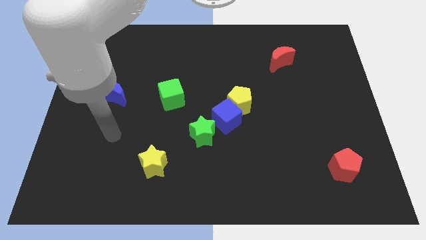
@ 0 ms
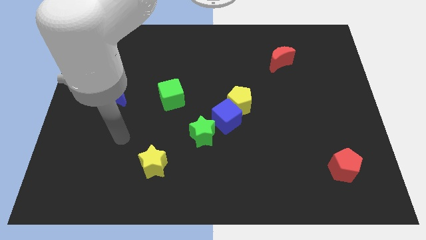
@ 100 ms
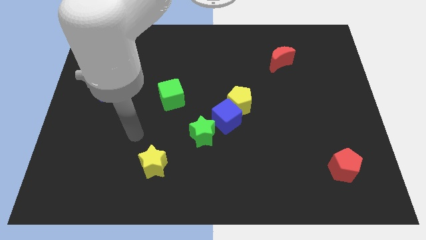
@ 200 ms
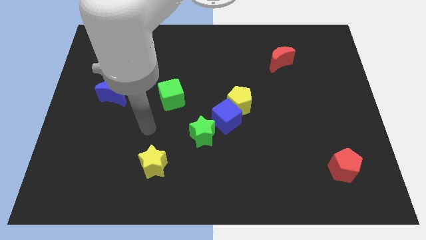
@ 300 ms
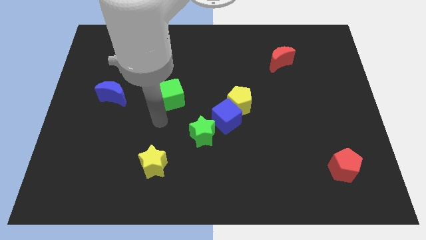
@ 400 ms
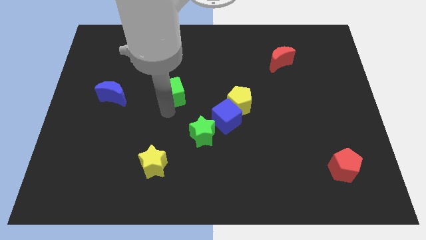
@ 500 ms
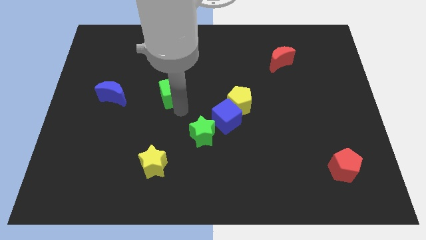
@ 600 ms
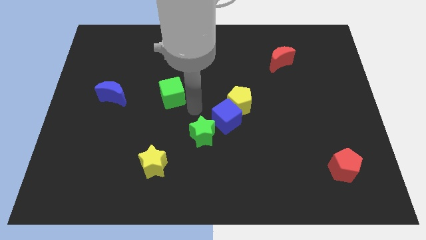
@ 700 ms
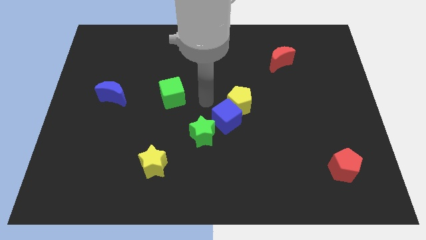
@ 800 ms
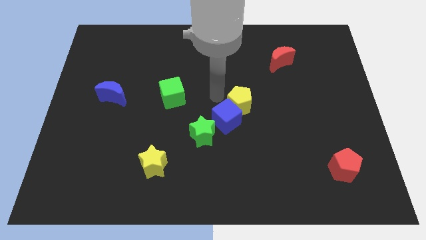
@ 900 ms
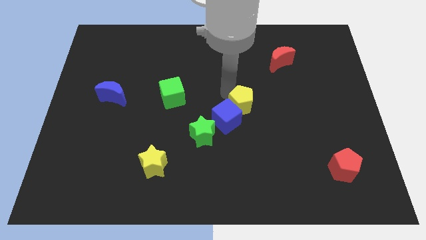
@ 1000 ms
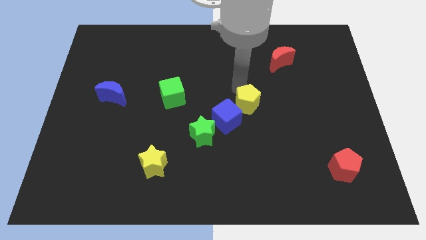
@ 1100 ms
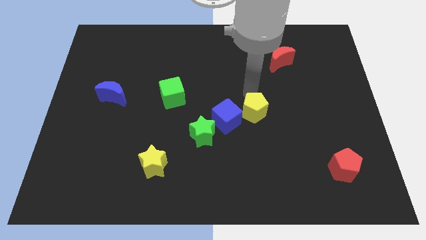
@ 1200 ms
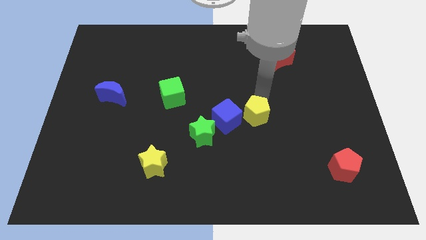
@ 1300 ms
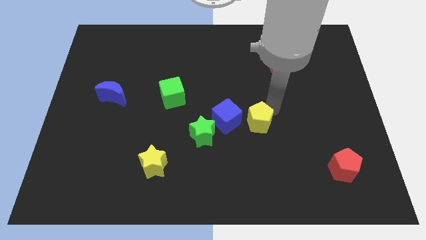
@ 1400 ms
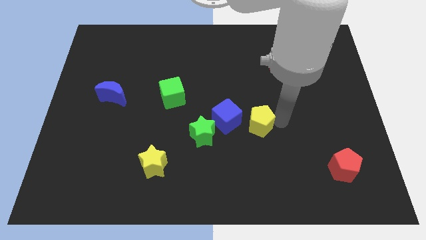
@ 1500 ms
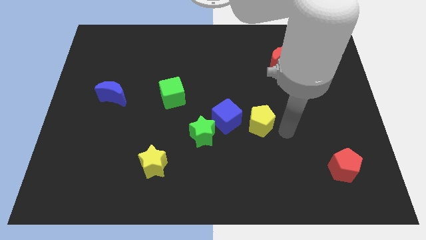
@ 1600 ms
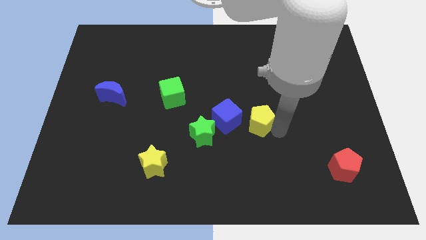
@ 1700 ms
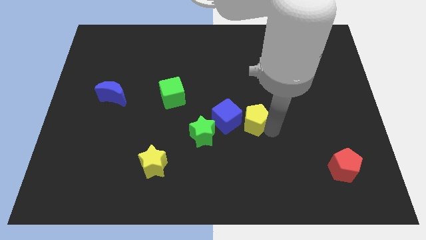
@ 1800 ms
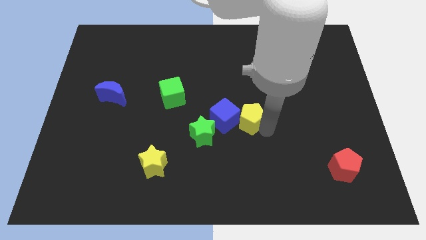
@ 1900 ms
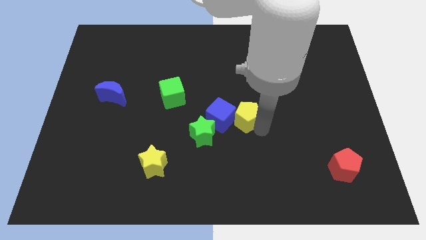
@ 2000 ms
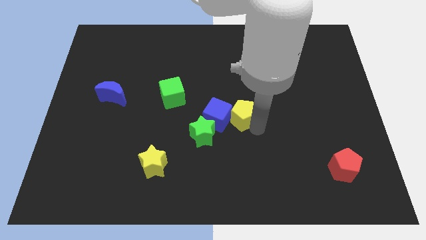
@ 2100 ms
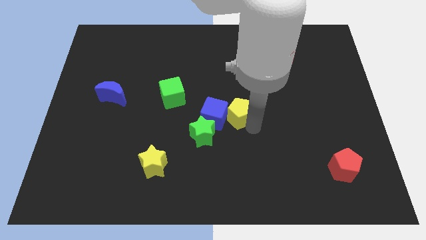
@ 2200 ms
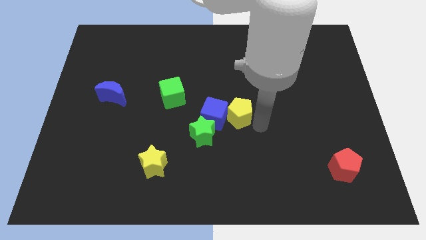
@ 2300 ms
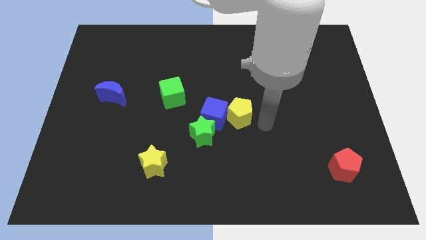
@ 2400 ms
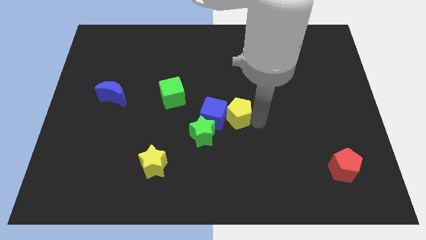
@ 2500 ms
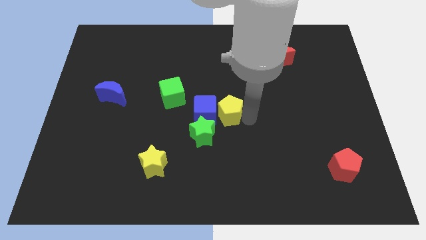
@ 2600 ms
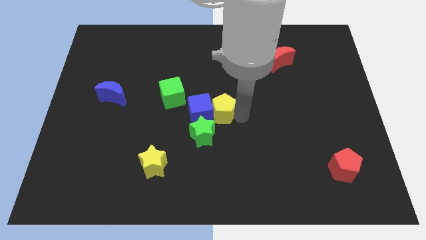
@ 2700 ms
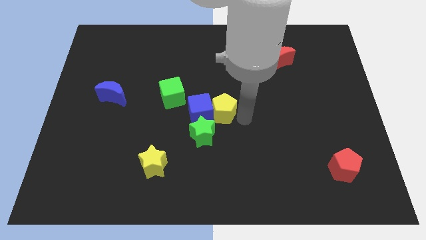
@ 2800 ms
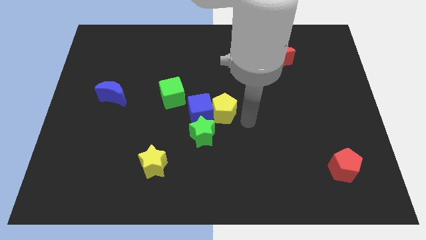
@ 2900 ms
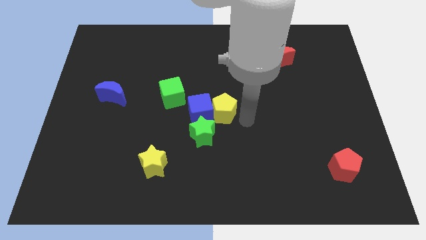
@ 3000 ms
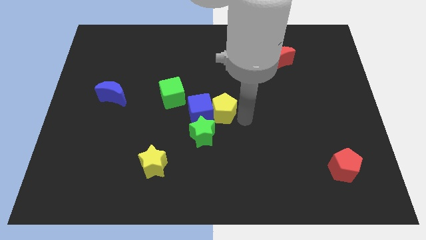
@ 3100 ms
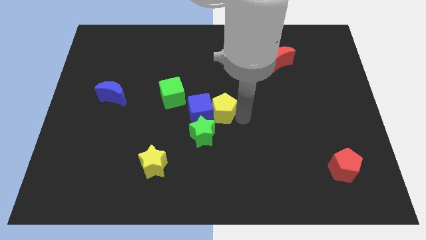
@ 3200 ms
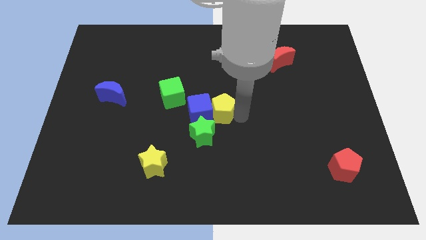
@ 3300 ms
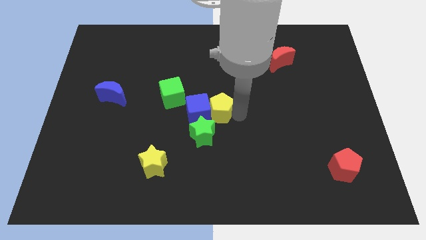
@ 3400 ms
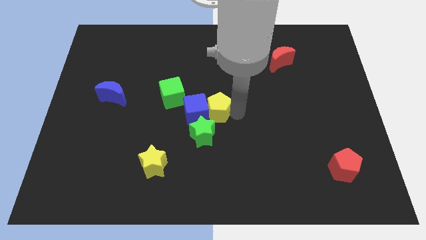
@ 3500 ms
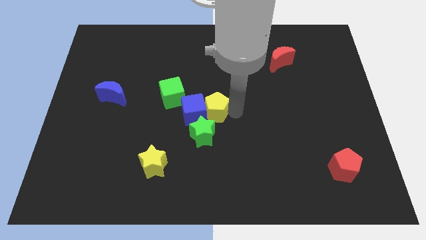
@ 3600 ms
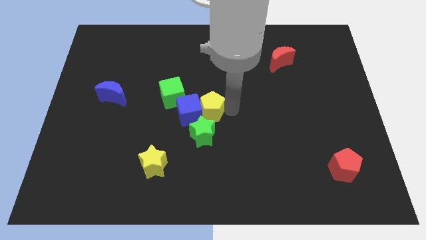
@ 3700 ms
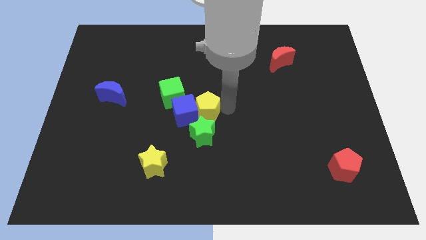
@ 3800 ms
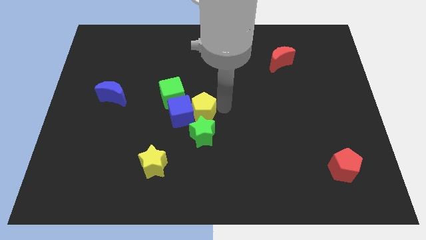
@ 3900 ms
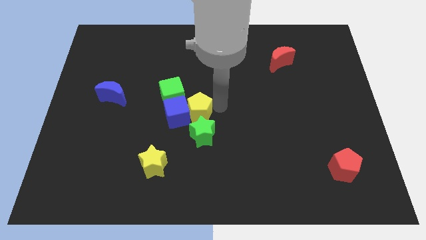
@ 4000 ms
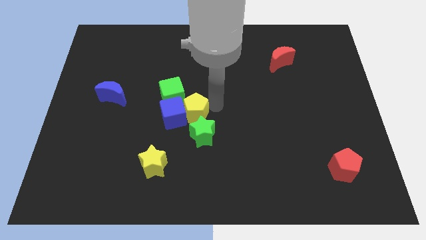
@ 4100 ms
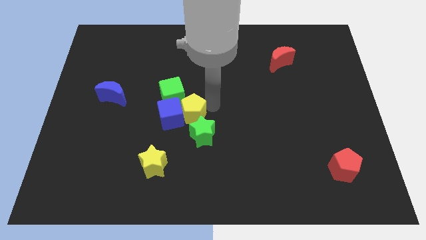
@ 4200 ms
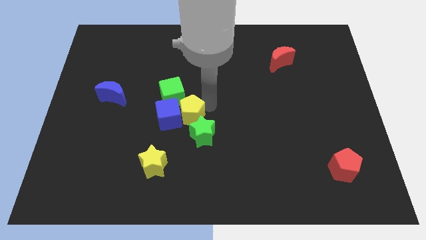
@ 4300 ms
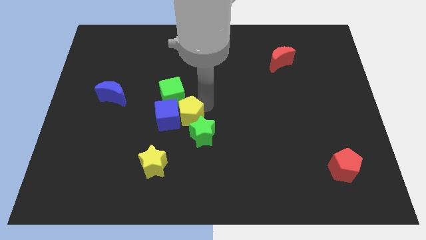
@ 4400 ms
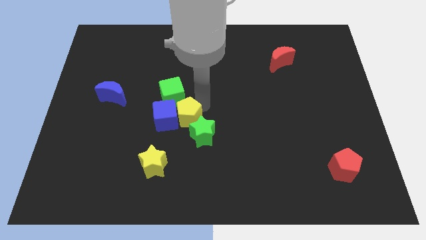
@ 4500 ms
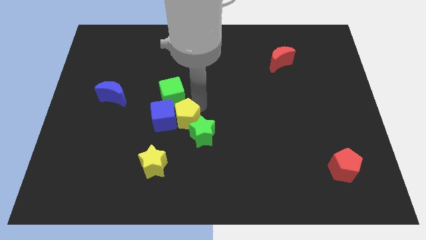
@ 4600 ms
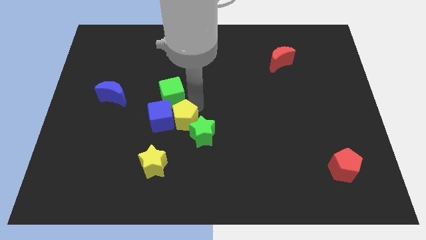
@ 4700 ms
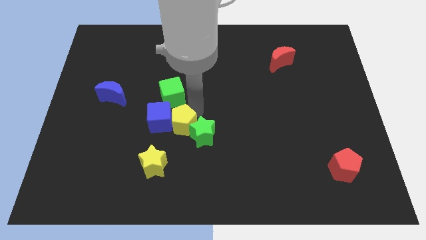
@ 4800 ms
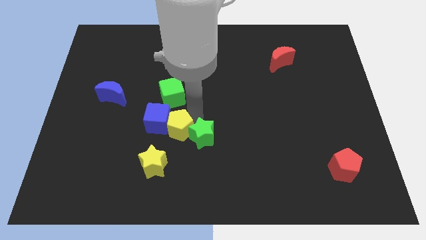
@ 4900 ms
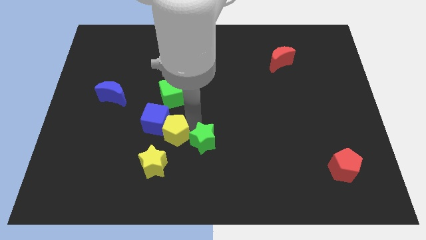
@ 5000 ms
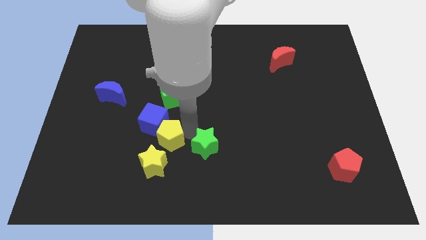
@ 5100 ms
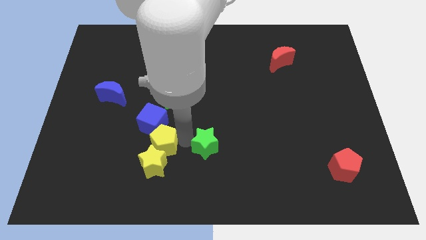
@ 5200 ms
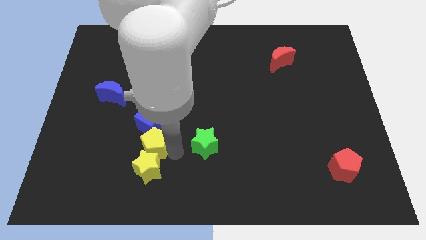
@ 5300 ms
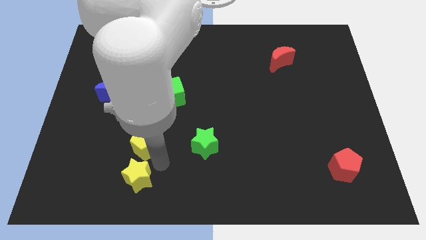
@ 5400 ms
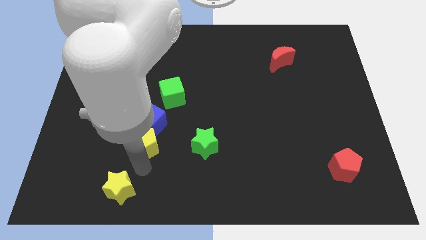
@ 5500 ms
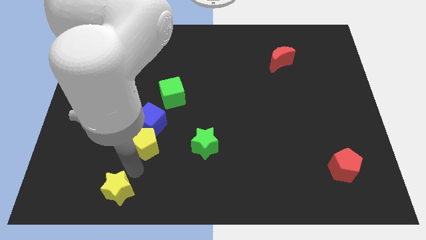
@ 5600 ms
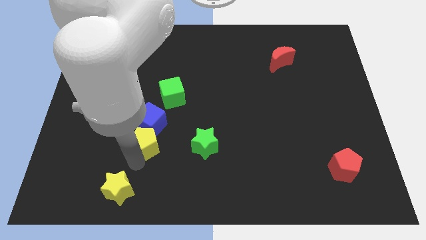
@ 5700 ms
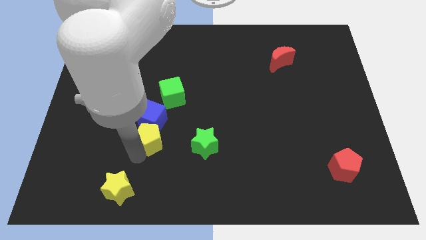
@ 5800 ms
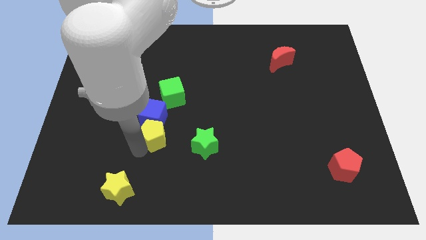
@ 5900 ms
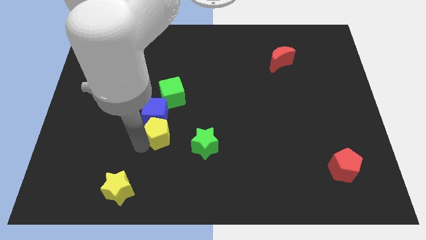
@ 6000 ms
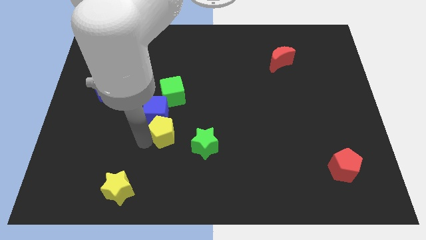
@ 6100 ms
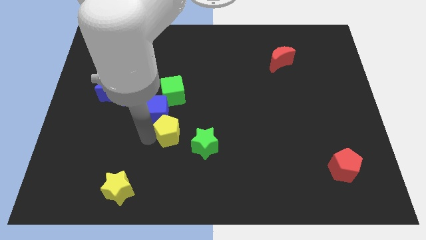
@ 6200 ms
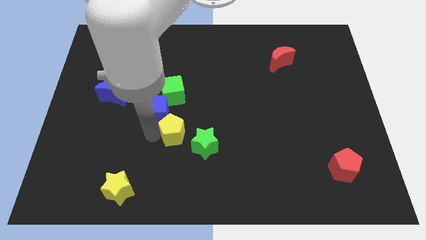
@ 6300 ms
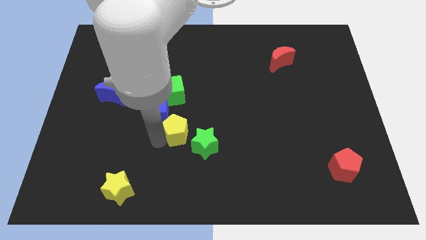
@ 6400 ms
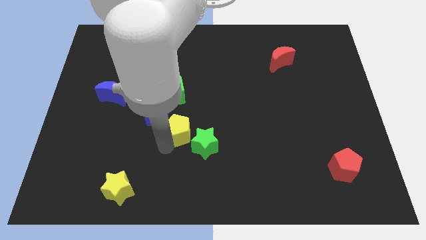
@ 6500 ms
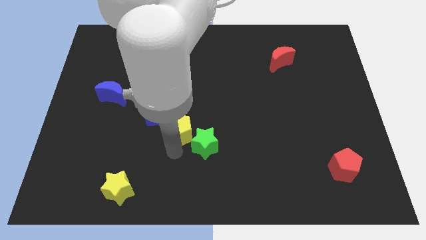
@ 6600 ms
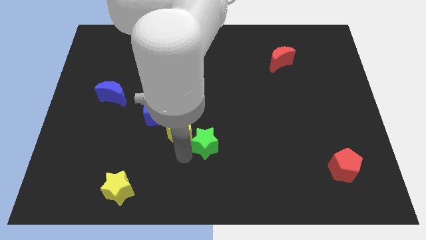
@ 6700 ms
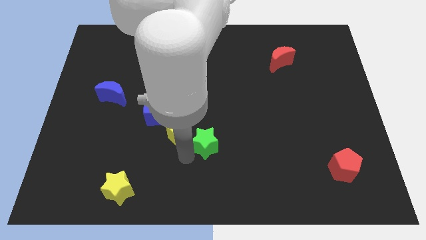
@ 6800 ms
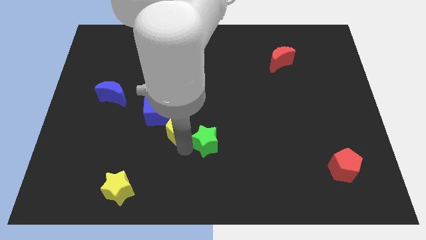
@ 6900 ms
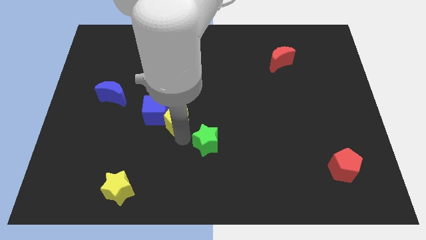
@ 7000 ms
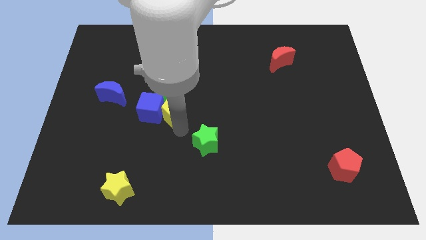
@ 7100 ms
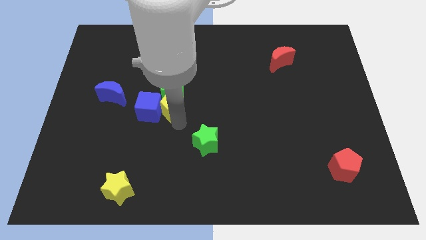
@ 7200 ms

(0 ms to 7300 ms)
put the yellow pentagon to the green cube
